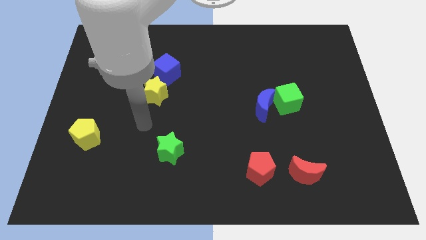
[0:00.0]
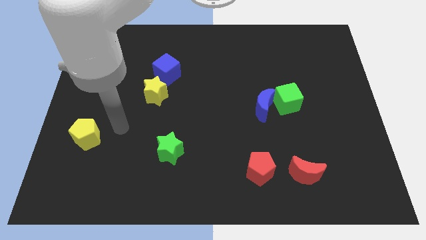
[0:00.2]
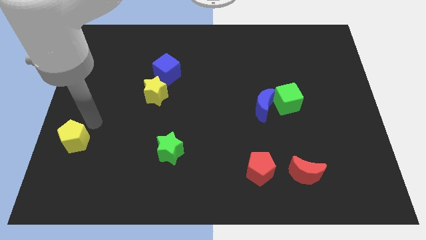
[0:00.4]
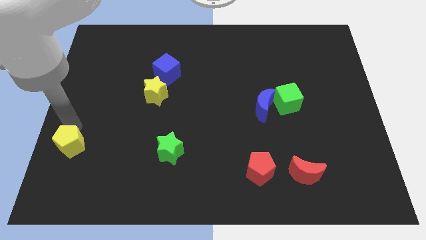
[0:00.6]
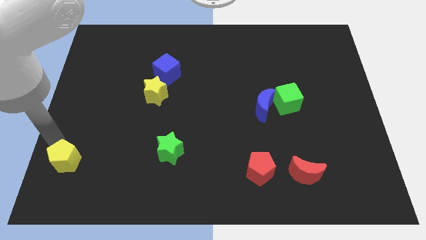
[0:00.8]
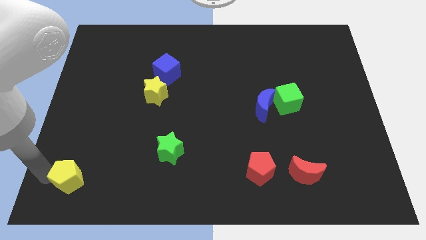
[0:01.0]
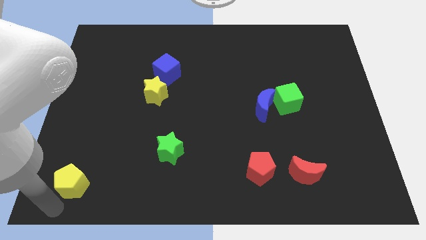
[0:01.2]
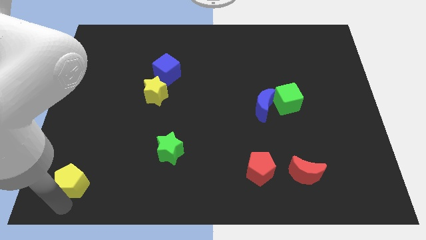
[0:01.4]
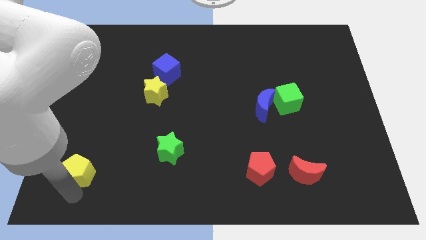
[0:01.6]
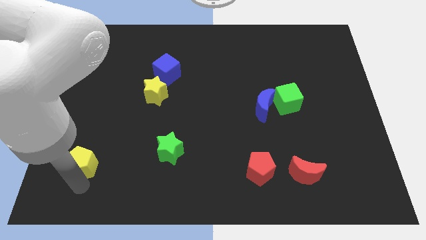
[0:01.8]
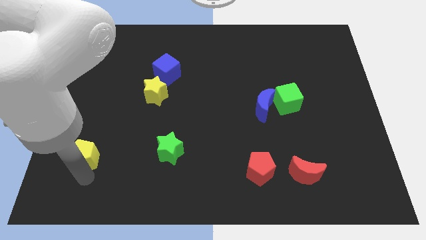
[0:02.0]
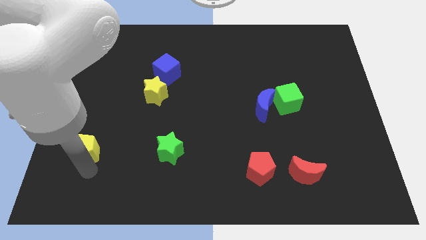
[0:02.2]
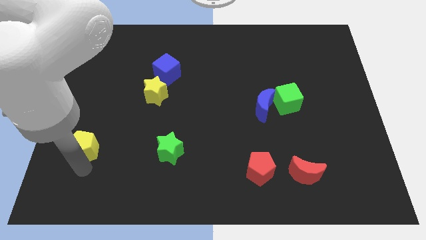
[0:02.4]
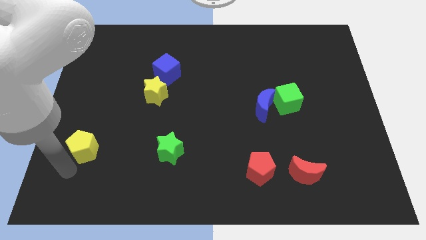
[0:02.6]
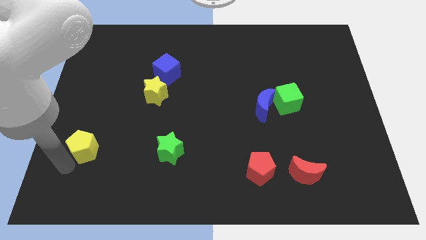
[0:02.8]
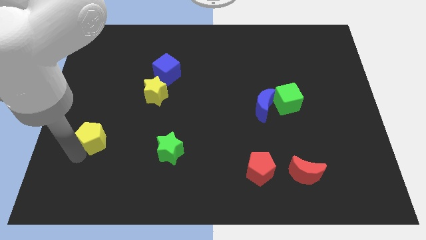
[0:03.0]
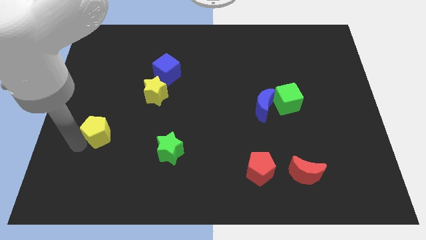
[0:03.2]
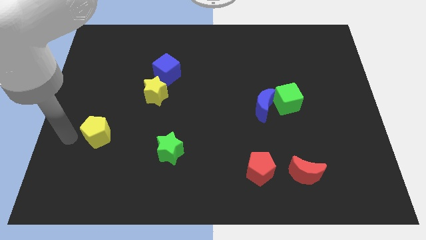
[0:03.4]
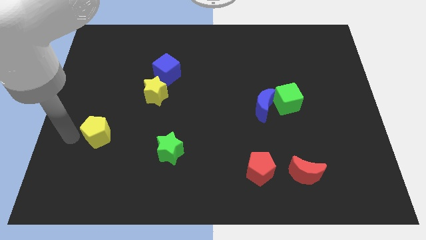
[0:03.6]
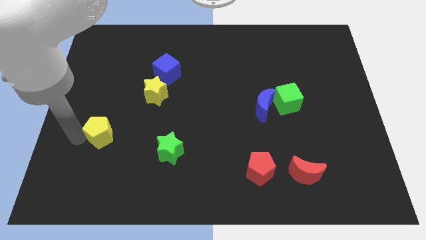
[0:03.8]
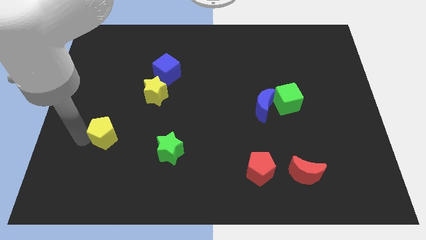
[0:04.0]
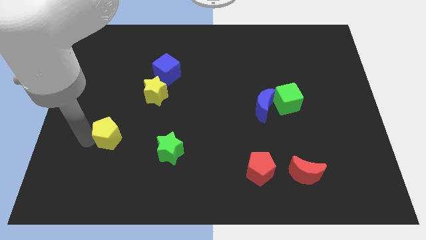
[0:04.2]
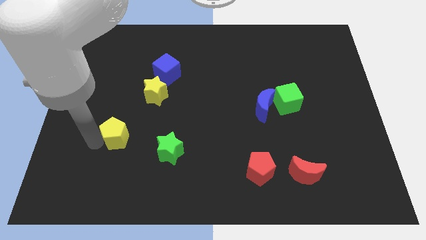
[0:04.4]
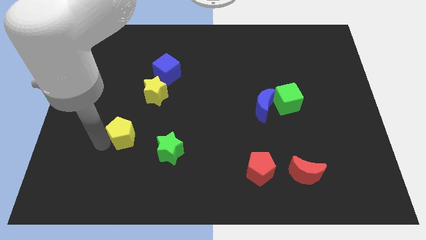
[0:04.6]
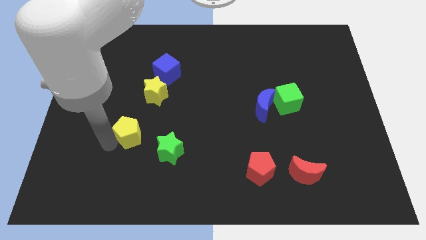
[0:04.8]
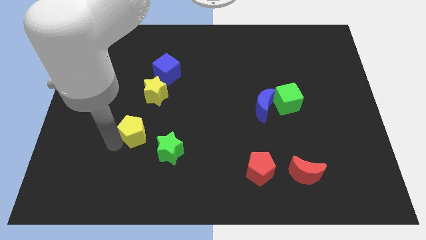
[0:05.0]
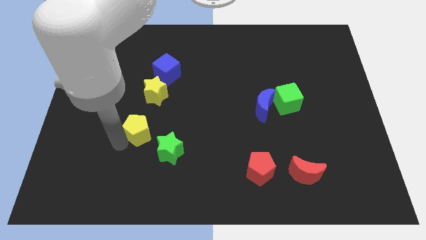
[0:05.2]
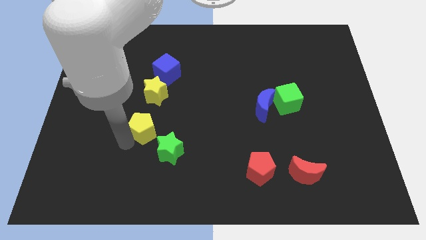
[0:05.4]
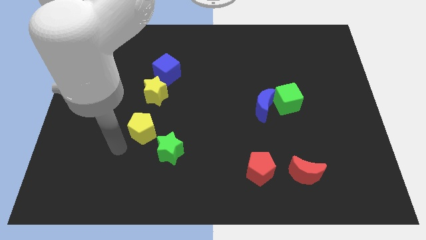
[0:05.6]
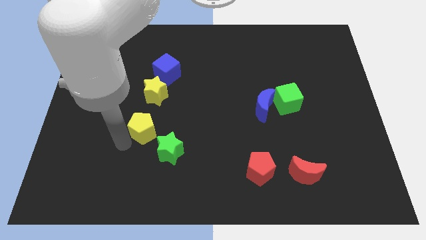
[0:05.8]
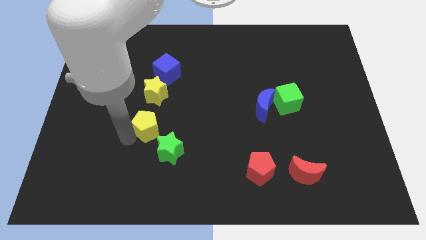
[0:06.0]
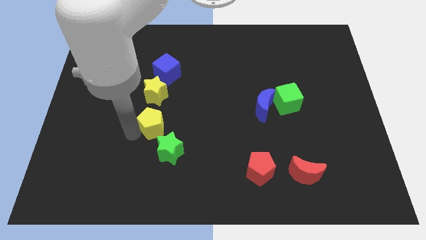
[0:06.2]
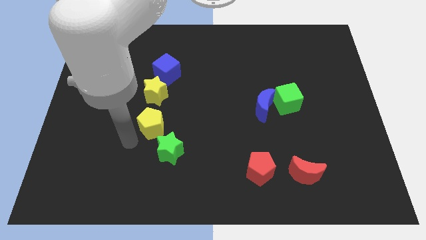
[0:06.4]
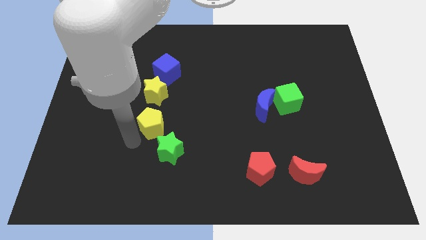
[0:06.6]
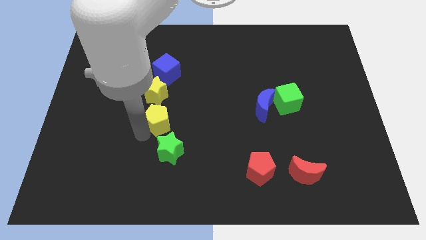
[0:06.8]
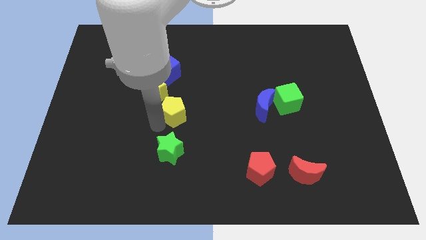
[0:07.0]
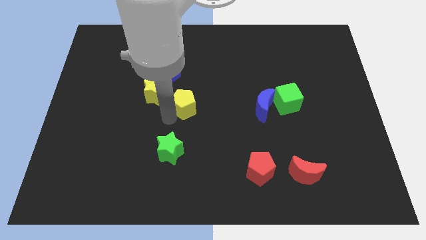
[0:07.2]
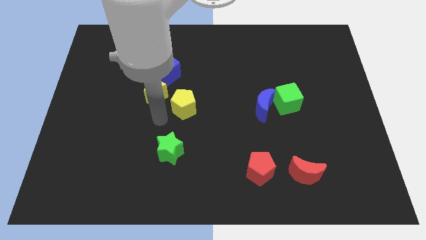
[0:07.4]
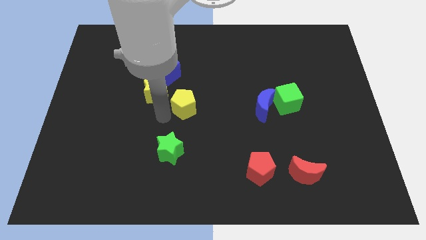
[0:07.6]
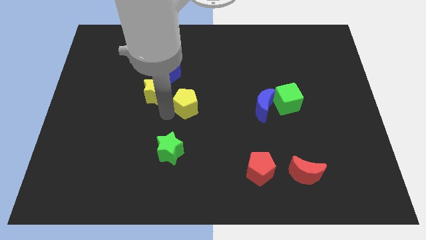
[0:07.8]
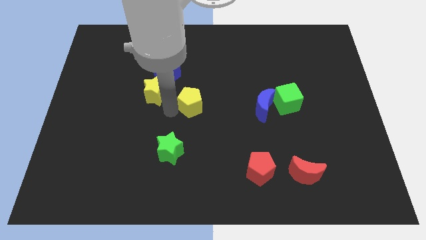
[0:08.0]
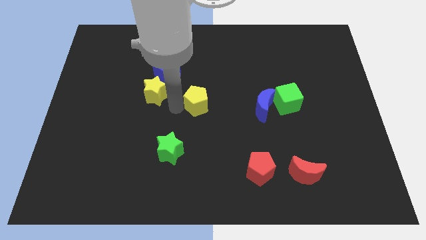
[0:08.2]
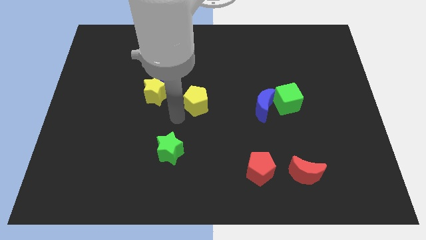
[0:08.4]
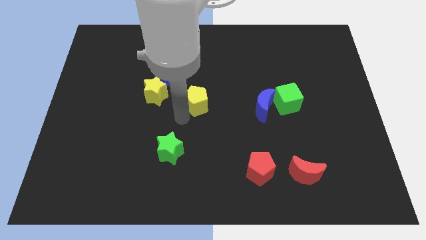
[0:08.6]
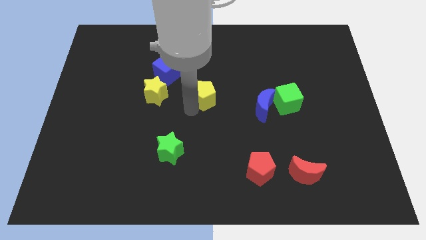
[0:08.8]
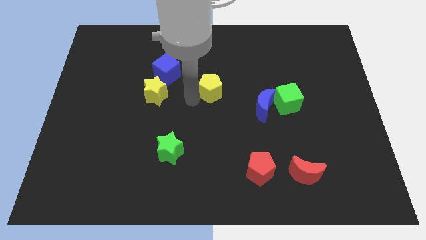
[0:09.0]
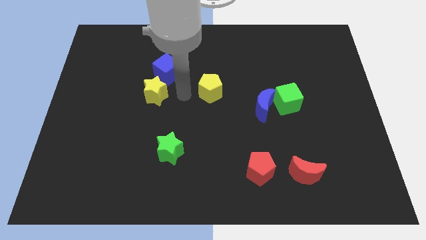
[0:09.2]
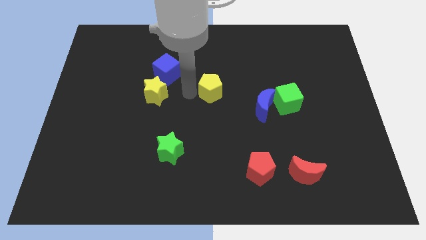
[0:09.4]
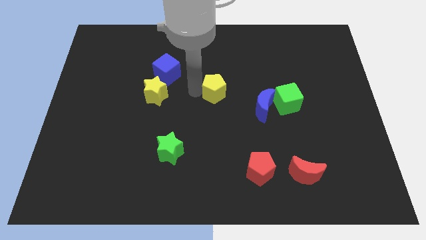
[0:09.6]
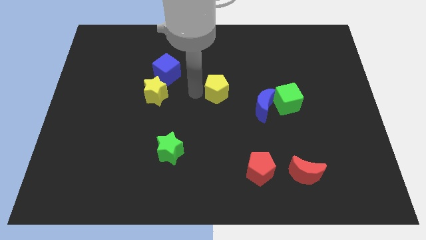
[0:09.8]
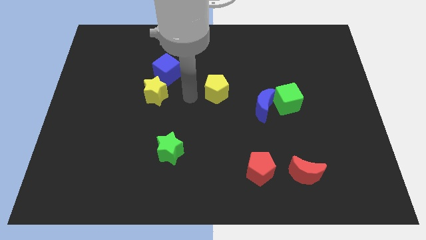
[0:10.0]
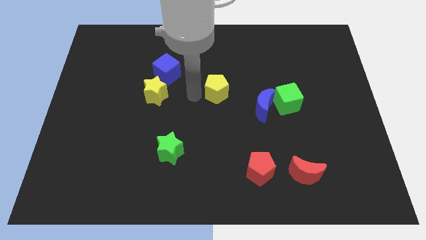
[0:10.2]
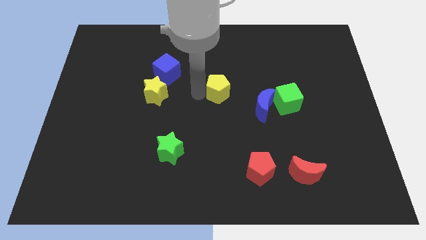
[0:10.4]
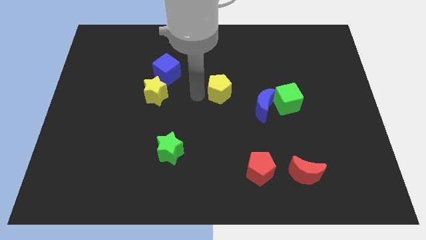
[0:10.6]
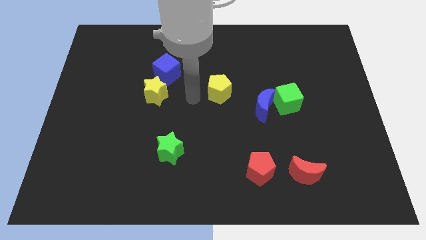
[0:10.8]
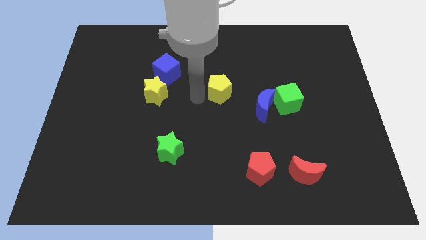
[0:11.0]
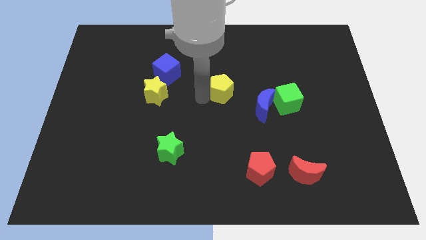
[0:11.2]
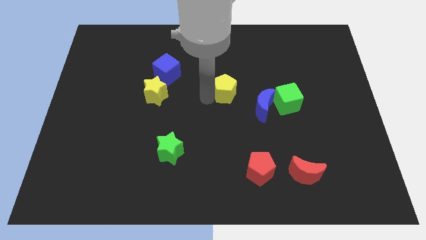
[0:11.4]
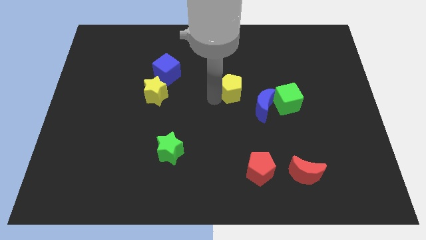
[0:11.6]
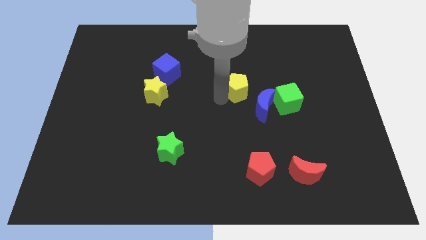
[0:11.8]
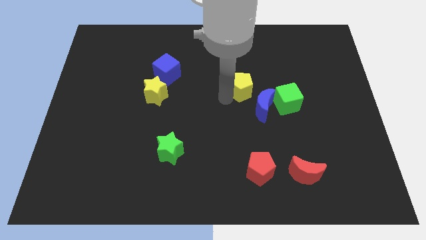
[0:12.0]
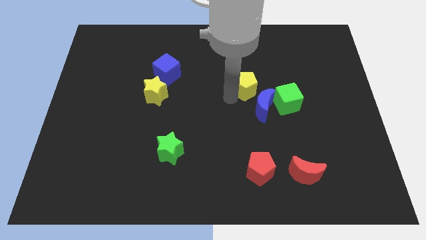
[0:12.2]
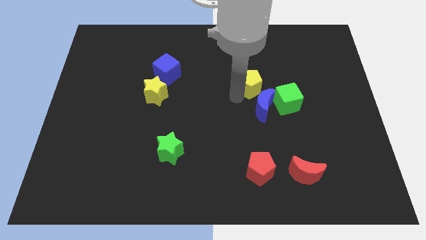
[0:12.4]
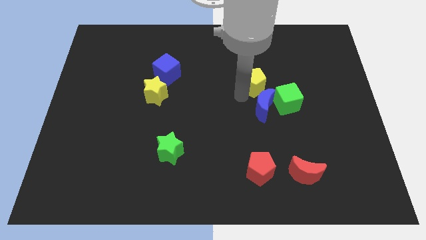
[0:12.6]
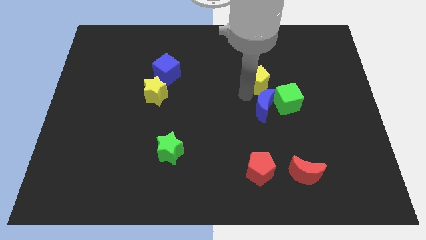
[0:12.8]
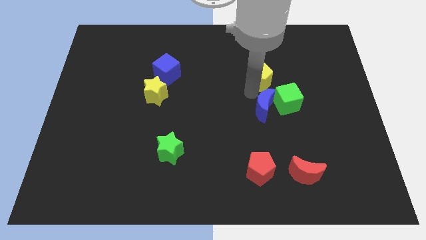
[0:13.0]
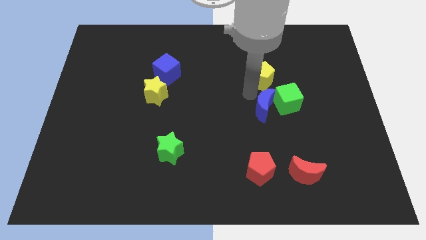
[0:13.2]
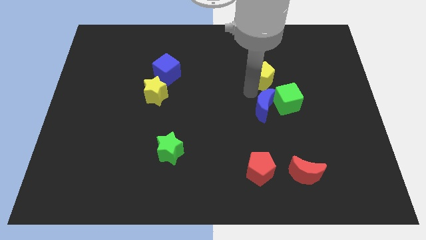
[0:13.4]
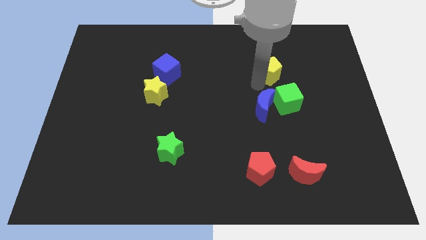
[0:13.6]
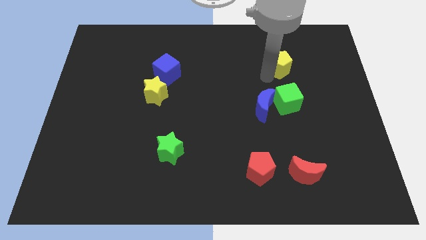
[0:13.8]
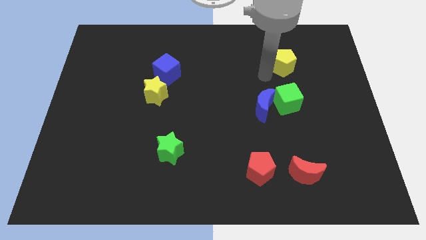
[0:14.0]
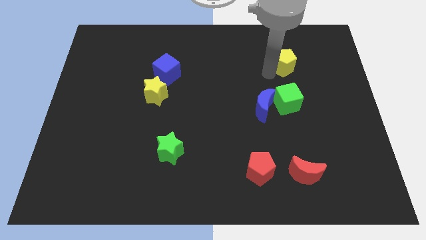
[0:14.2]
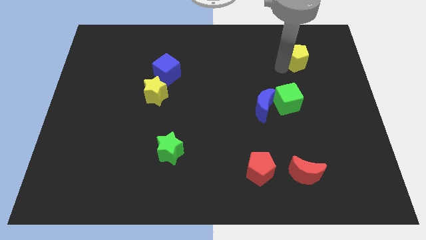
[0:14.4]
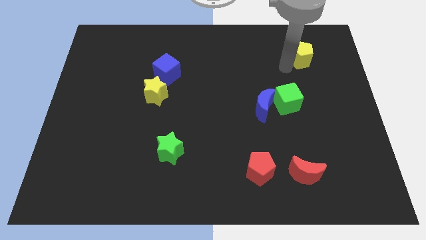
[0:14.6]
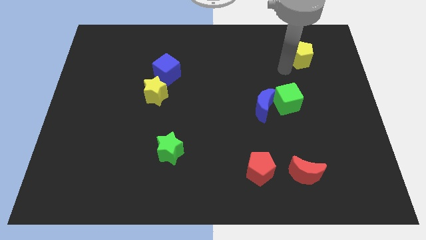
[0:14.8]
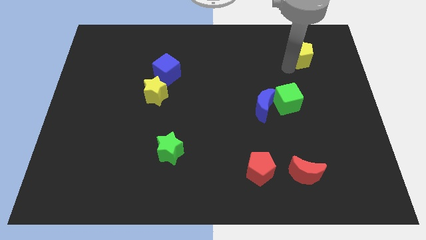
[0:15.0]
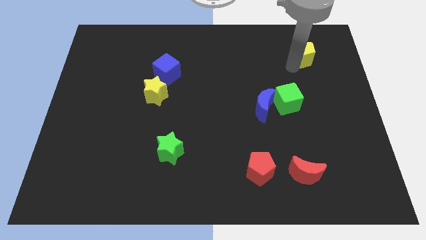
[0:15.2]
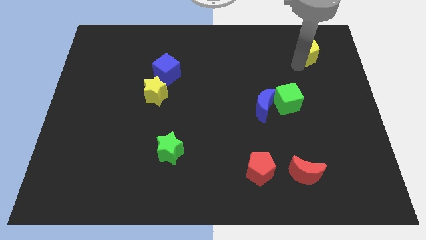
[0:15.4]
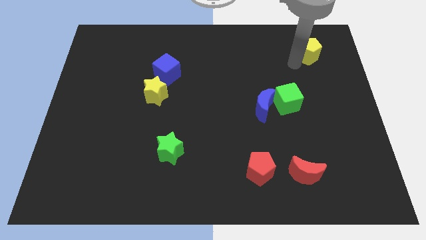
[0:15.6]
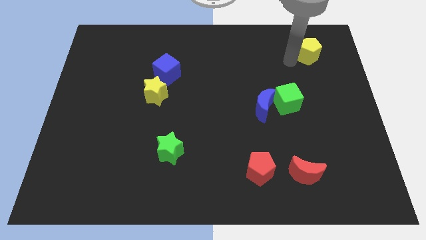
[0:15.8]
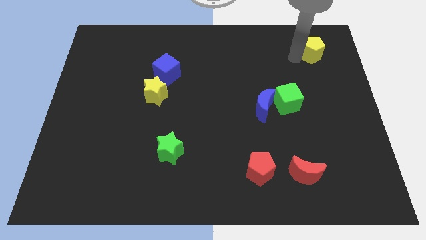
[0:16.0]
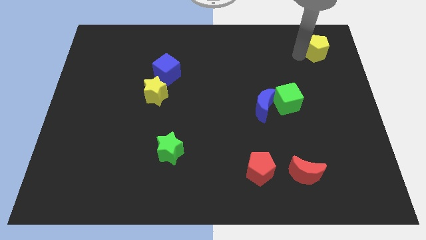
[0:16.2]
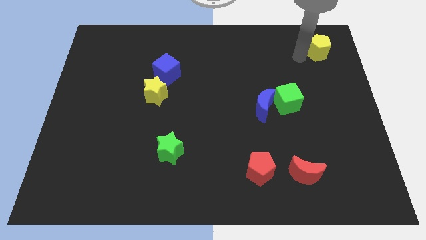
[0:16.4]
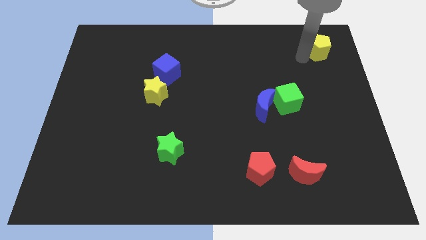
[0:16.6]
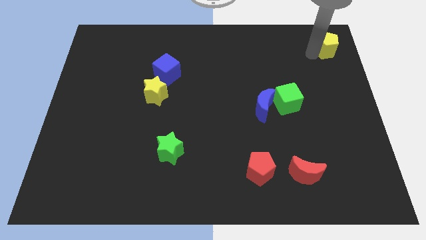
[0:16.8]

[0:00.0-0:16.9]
slide the yellow pentagon to the top right corner
